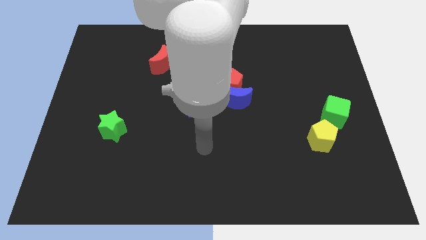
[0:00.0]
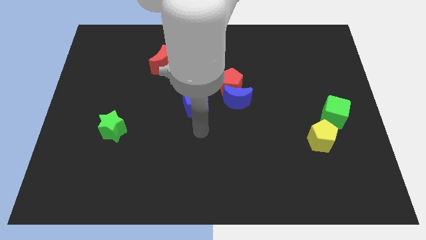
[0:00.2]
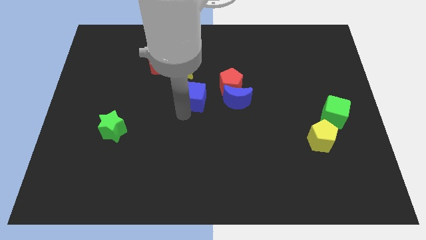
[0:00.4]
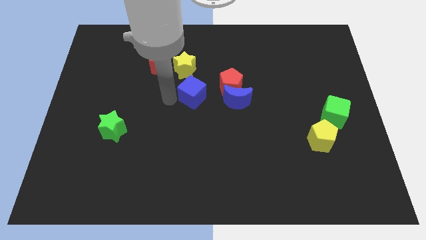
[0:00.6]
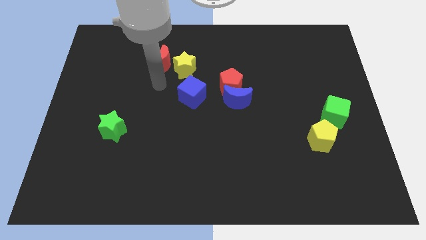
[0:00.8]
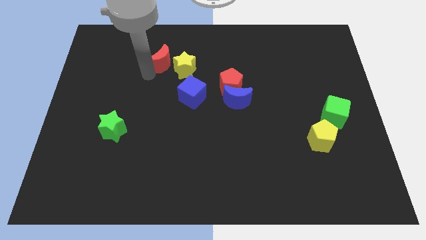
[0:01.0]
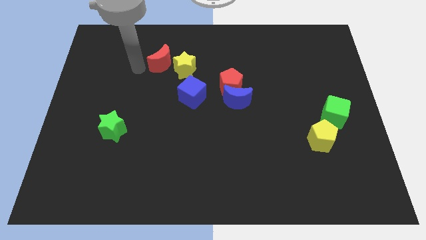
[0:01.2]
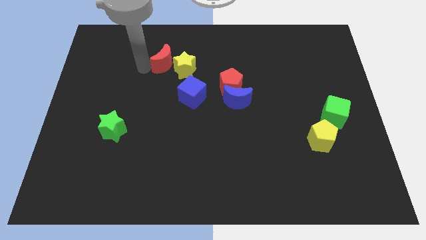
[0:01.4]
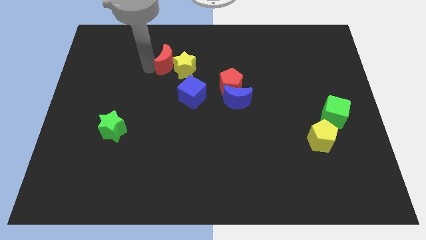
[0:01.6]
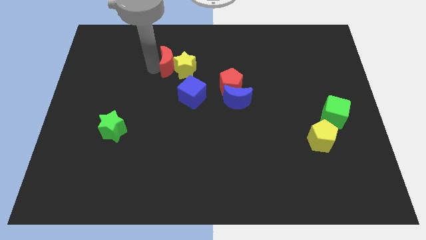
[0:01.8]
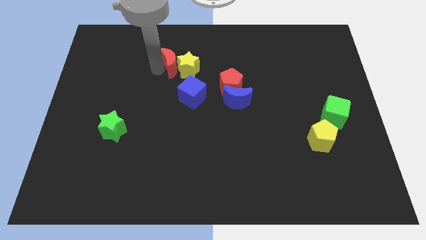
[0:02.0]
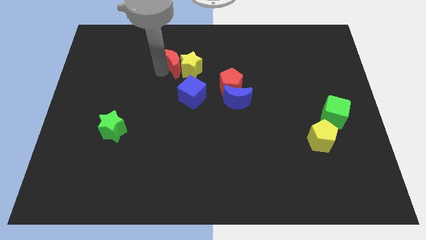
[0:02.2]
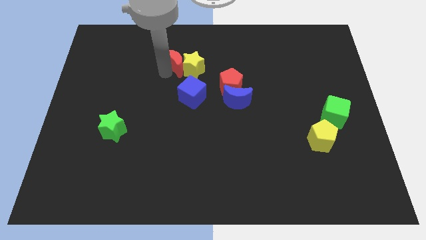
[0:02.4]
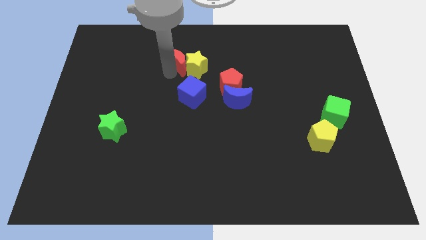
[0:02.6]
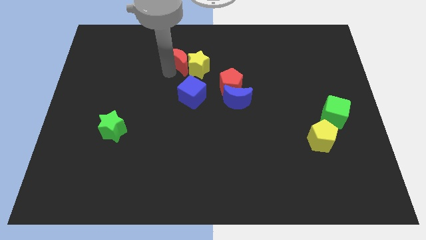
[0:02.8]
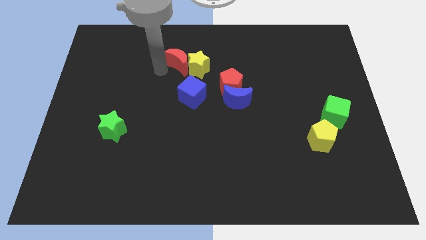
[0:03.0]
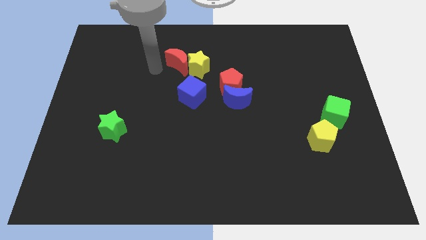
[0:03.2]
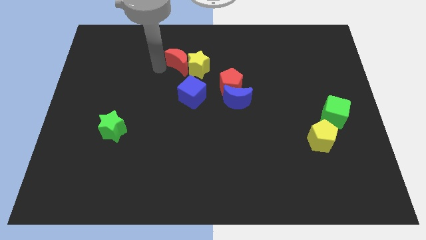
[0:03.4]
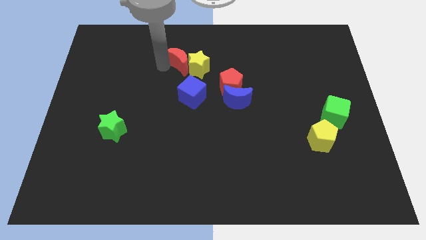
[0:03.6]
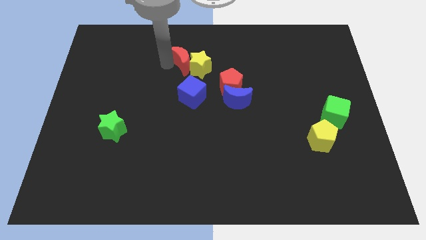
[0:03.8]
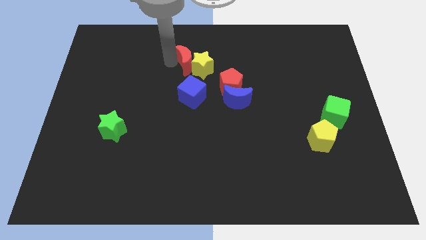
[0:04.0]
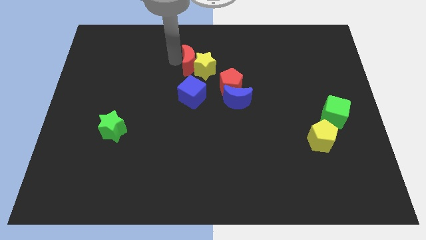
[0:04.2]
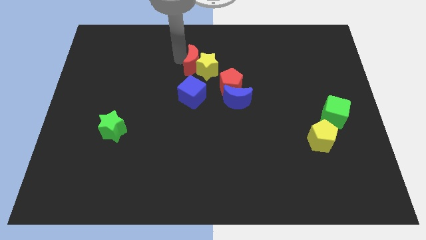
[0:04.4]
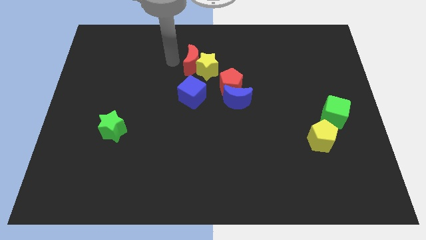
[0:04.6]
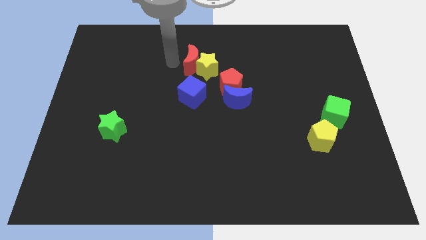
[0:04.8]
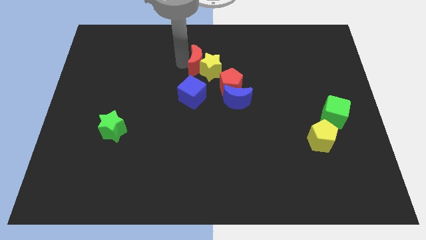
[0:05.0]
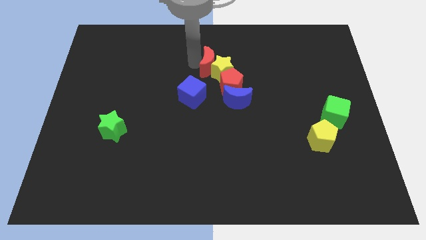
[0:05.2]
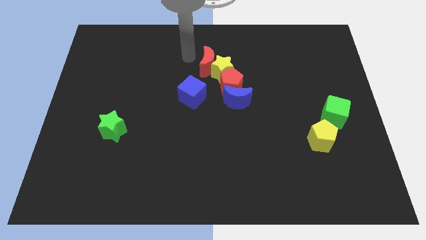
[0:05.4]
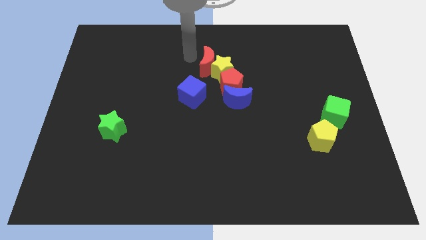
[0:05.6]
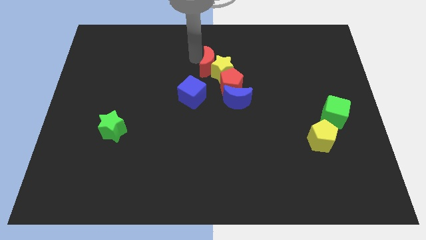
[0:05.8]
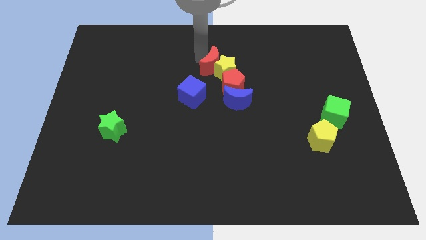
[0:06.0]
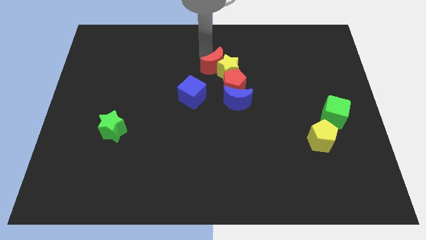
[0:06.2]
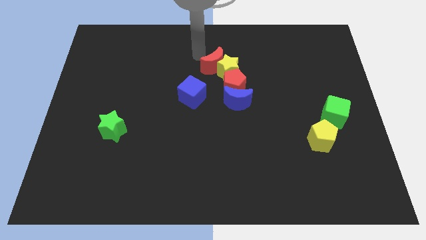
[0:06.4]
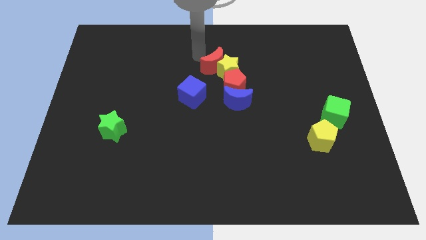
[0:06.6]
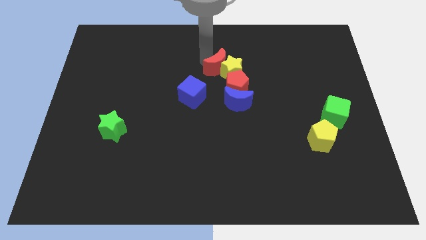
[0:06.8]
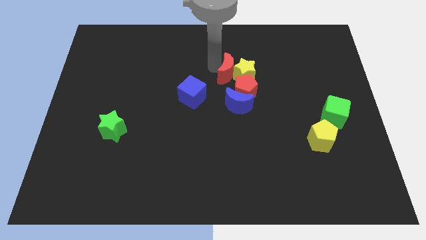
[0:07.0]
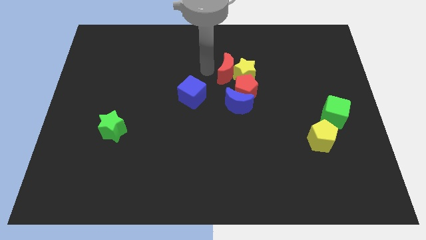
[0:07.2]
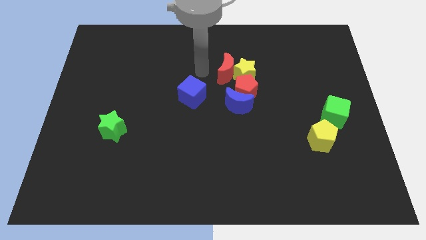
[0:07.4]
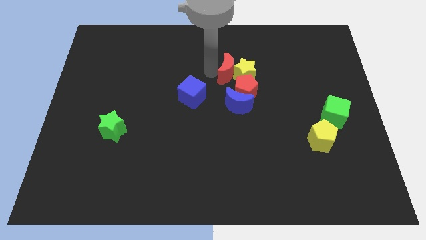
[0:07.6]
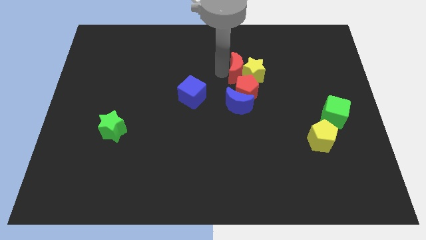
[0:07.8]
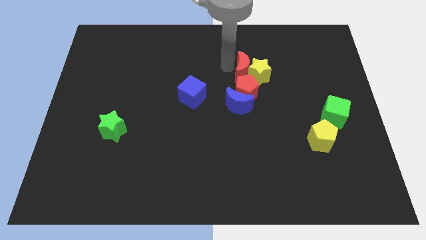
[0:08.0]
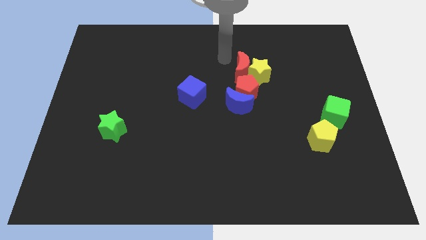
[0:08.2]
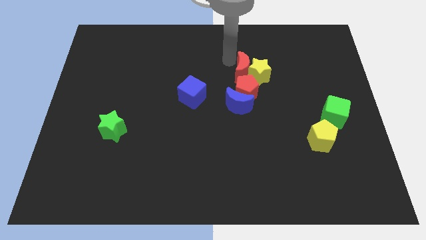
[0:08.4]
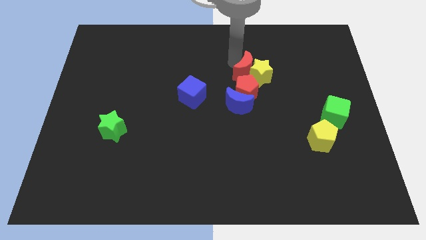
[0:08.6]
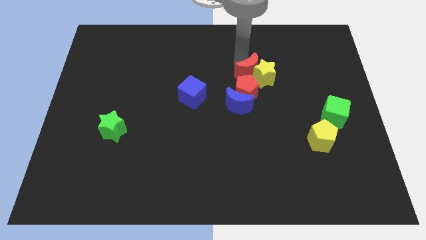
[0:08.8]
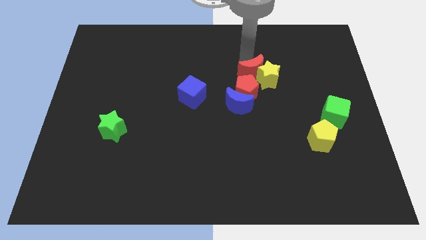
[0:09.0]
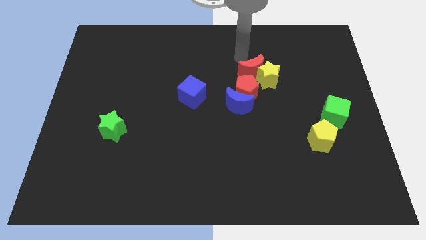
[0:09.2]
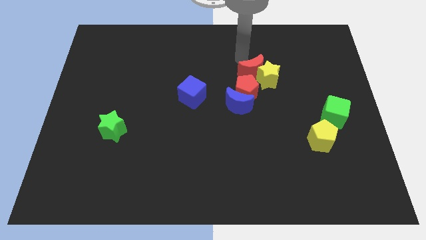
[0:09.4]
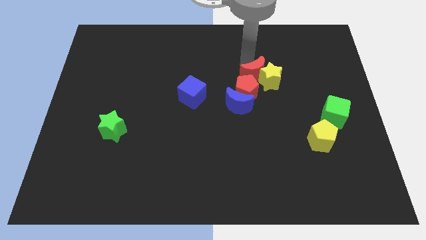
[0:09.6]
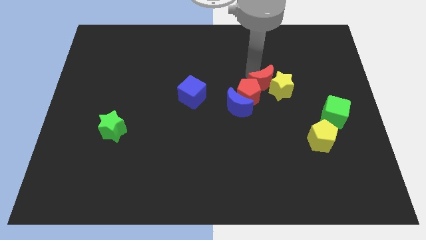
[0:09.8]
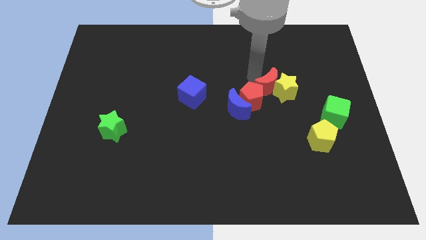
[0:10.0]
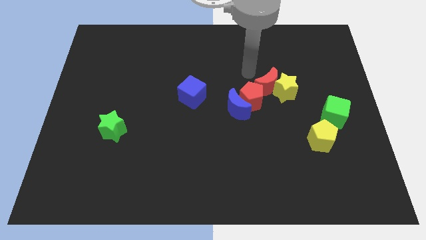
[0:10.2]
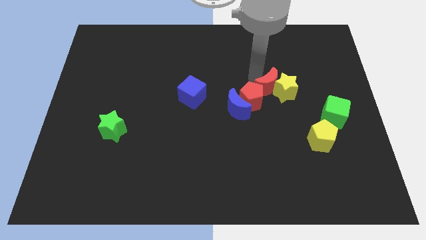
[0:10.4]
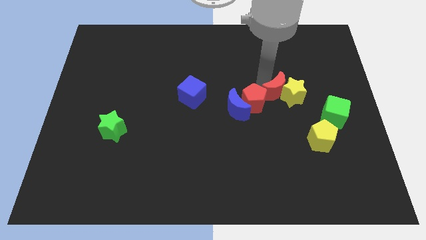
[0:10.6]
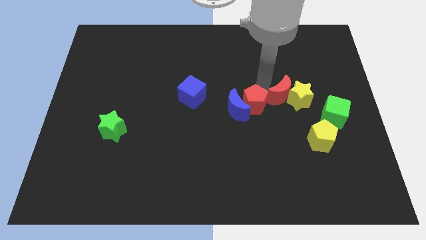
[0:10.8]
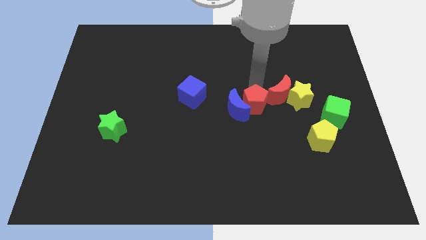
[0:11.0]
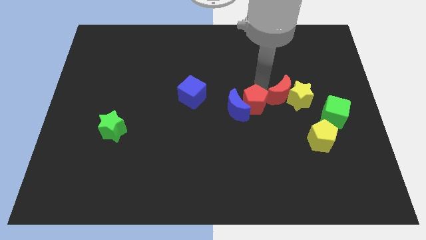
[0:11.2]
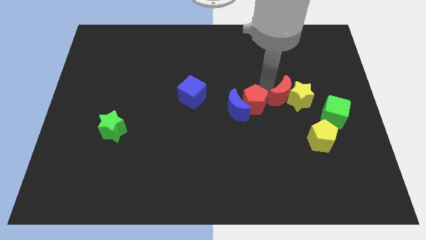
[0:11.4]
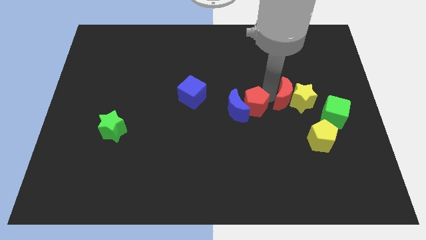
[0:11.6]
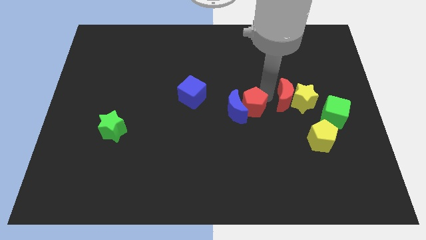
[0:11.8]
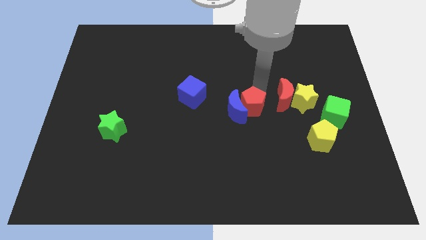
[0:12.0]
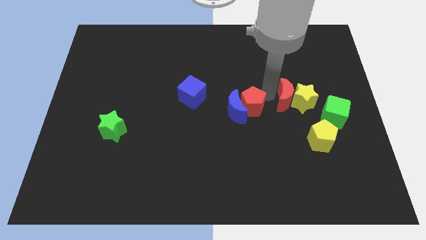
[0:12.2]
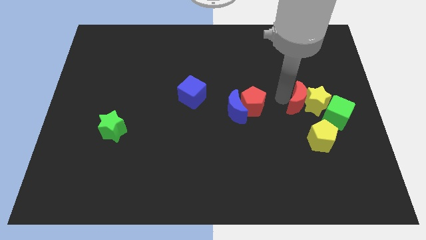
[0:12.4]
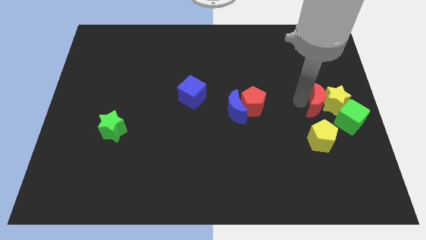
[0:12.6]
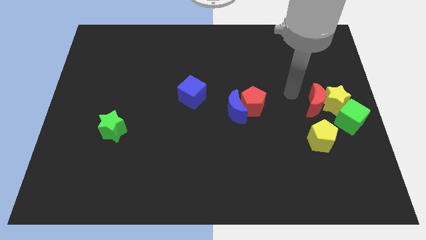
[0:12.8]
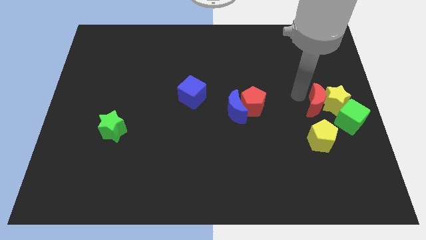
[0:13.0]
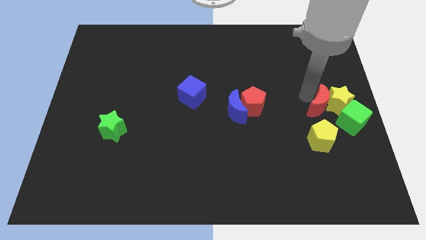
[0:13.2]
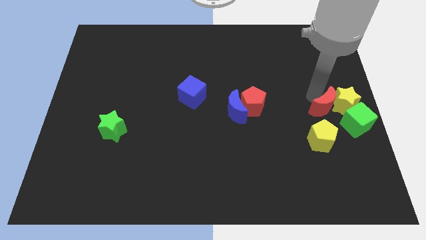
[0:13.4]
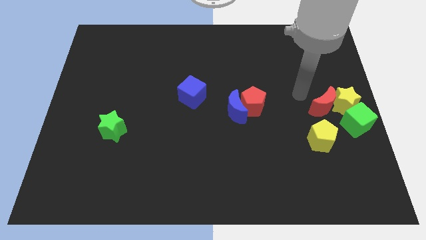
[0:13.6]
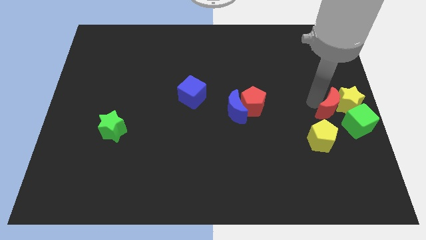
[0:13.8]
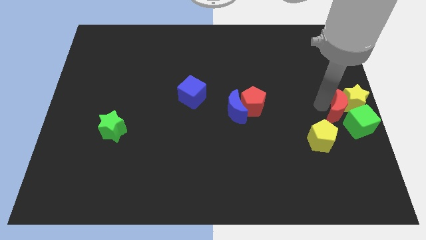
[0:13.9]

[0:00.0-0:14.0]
move the red moon close to the green cube

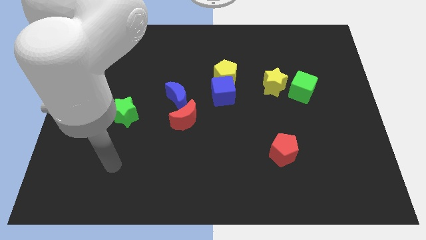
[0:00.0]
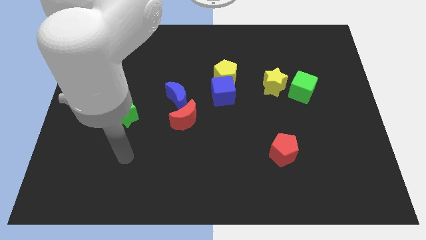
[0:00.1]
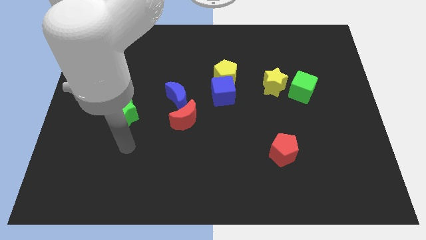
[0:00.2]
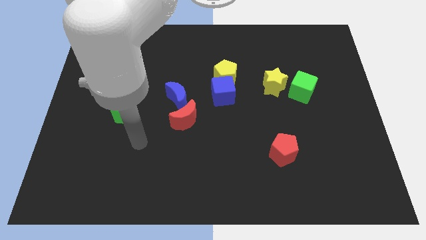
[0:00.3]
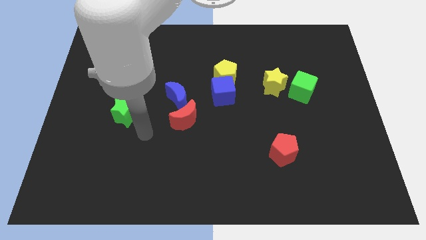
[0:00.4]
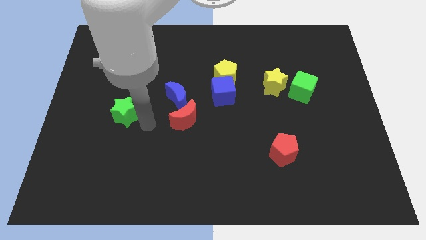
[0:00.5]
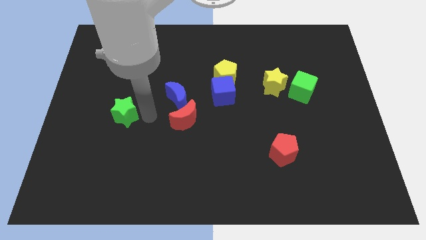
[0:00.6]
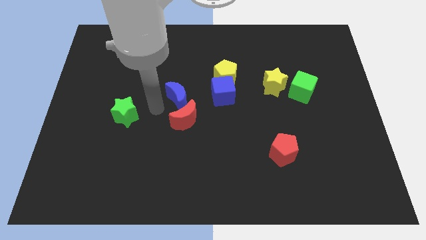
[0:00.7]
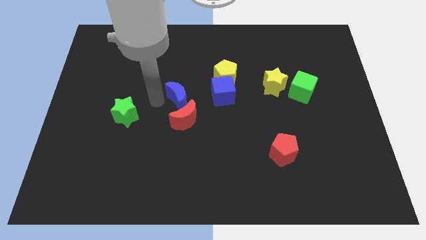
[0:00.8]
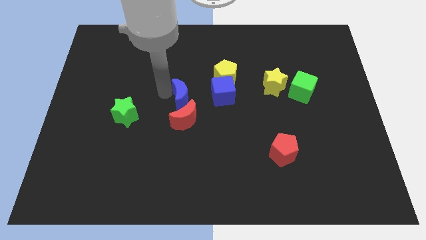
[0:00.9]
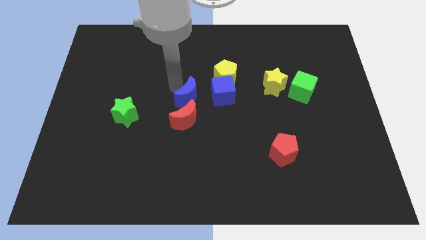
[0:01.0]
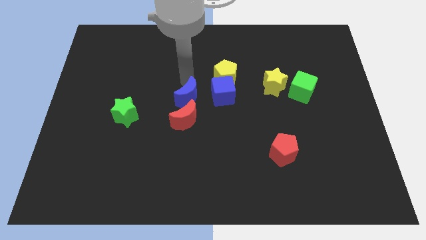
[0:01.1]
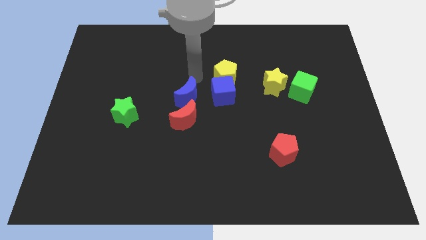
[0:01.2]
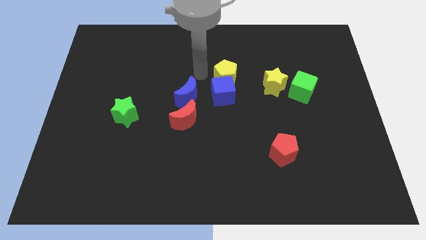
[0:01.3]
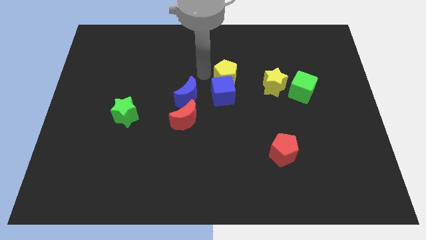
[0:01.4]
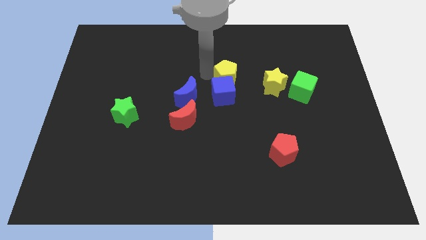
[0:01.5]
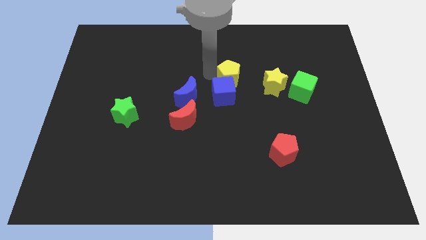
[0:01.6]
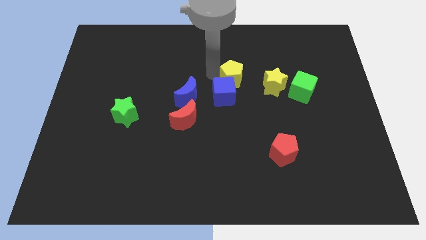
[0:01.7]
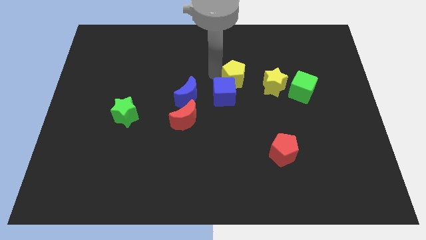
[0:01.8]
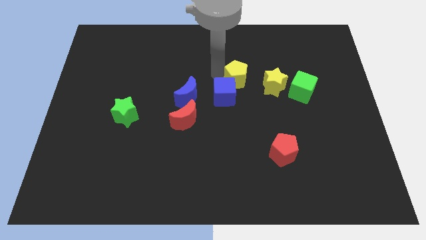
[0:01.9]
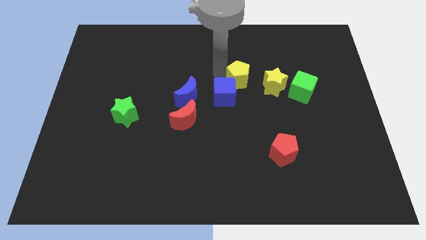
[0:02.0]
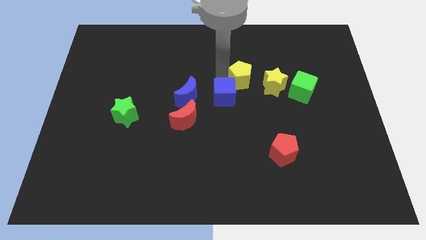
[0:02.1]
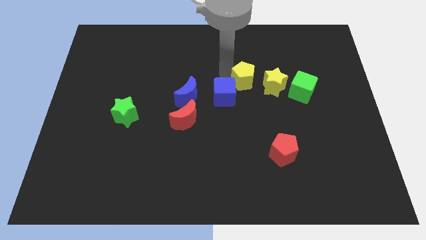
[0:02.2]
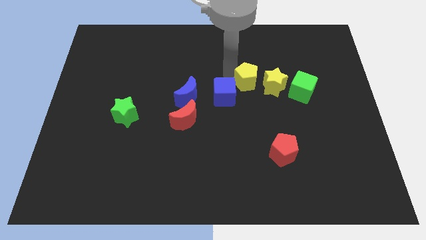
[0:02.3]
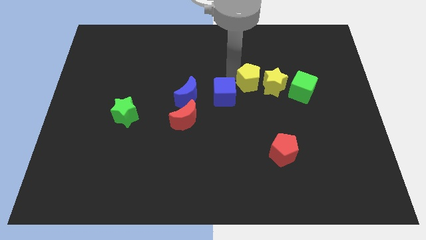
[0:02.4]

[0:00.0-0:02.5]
put the yellow pentagon next to the yellow star
